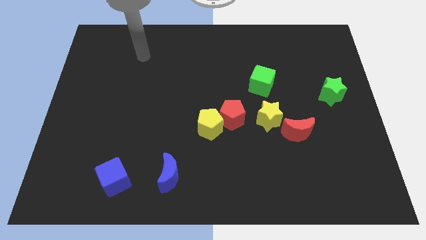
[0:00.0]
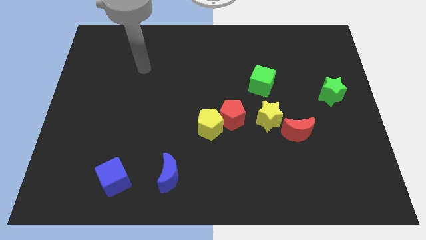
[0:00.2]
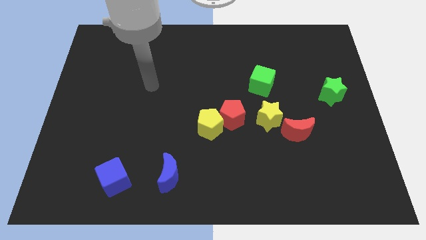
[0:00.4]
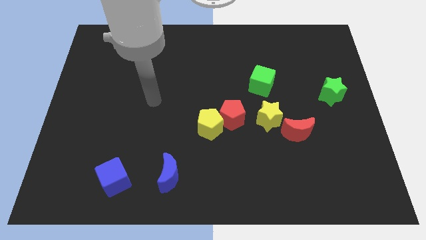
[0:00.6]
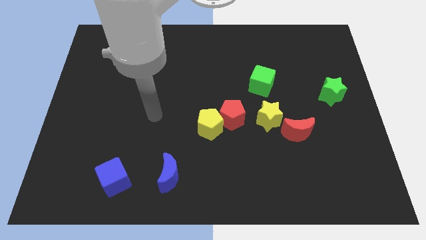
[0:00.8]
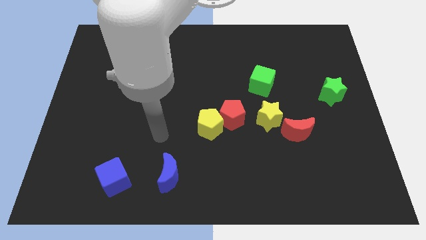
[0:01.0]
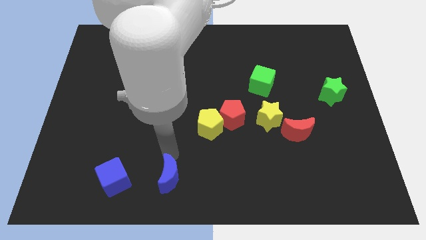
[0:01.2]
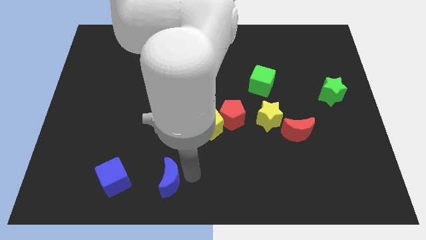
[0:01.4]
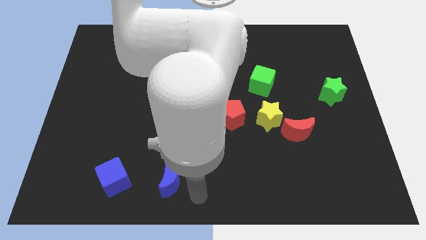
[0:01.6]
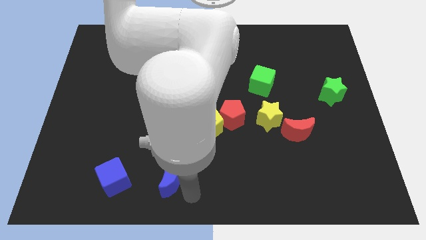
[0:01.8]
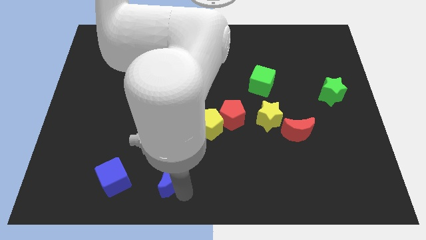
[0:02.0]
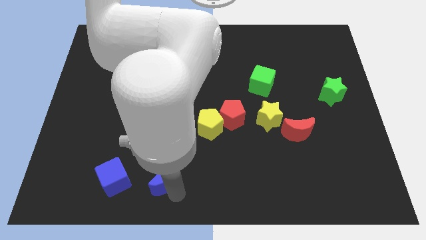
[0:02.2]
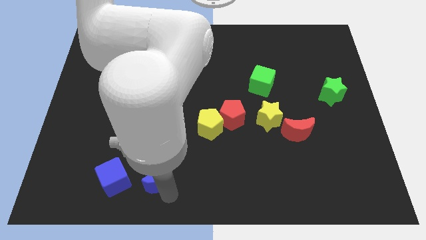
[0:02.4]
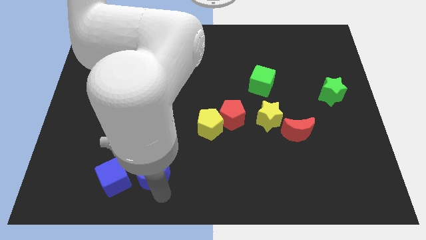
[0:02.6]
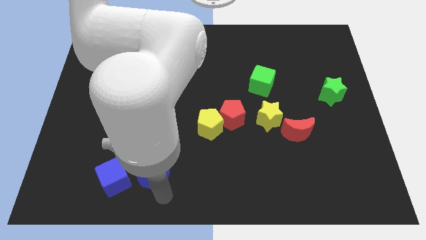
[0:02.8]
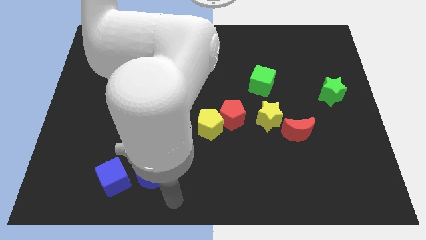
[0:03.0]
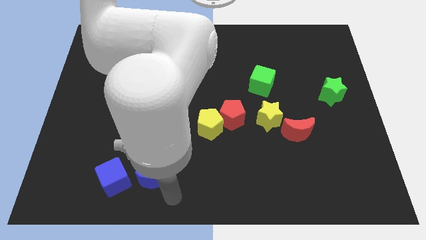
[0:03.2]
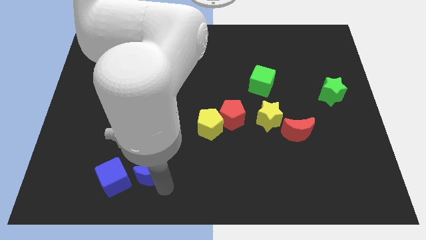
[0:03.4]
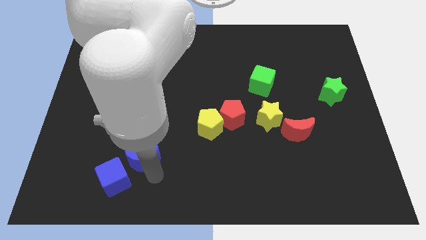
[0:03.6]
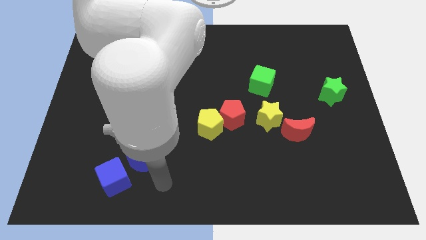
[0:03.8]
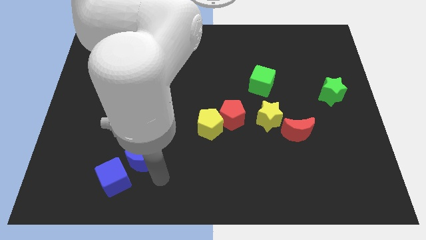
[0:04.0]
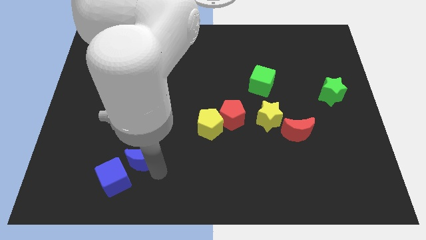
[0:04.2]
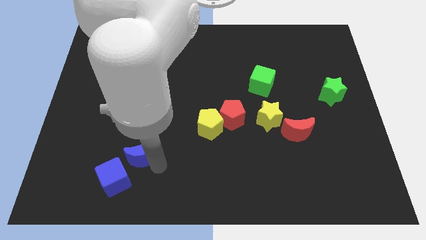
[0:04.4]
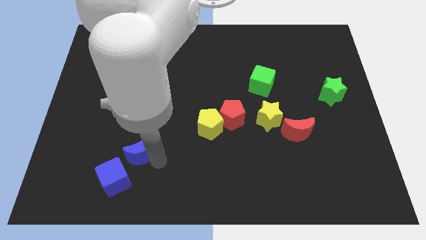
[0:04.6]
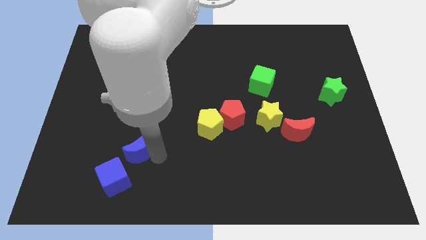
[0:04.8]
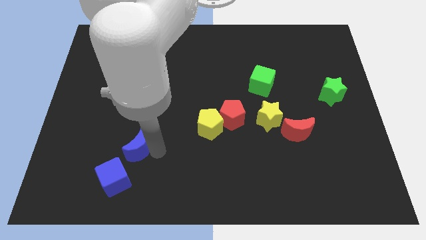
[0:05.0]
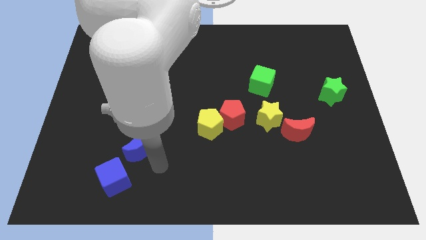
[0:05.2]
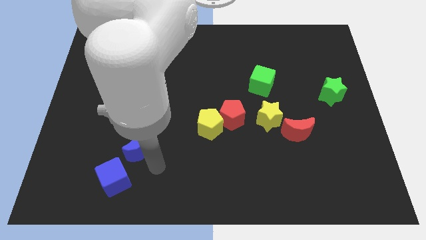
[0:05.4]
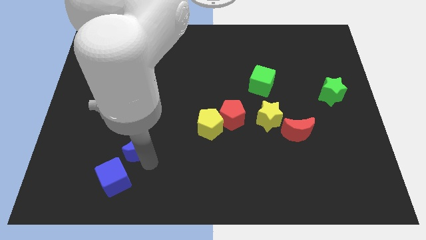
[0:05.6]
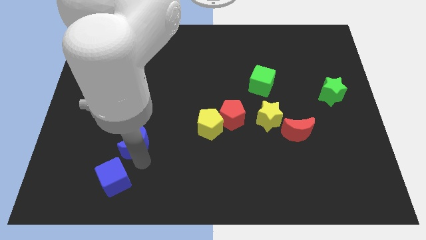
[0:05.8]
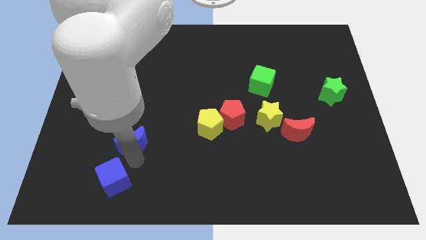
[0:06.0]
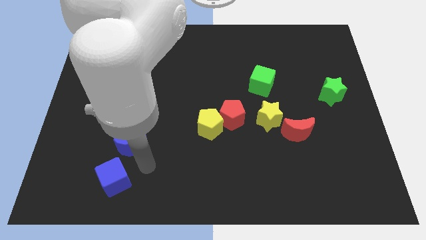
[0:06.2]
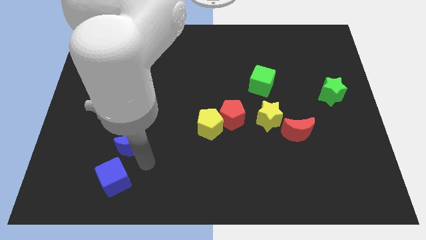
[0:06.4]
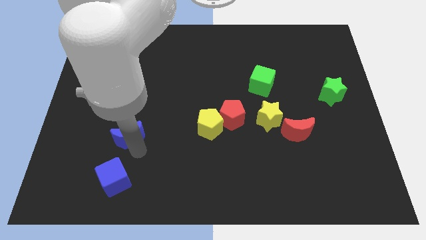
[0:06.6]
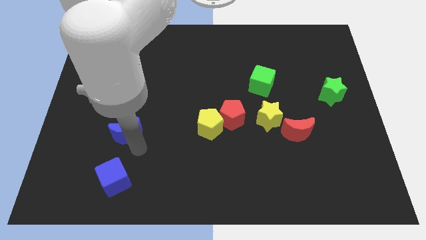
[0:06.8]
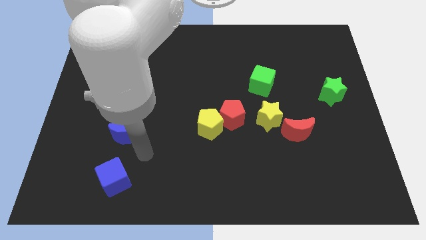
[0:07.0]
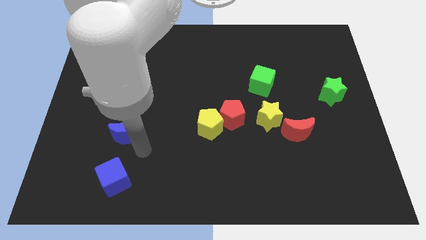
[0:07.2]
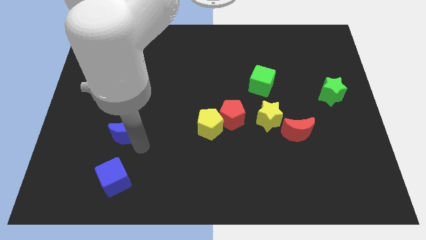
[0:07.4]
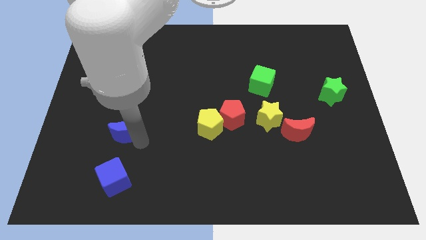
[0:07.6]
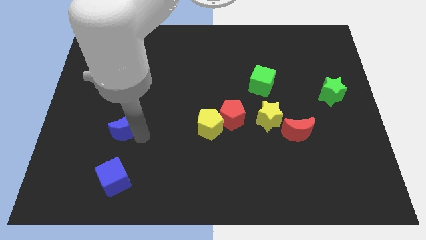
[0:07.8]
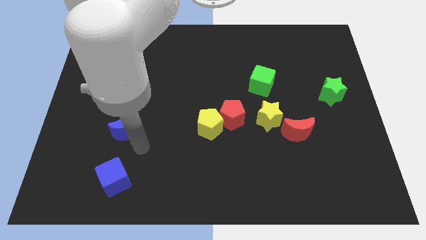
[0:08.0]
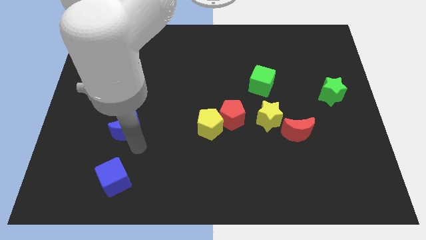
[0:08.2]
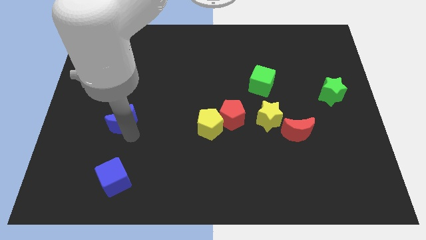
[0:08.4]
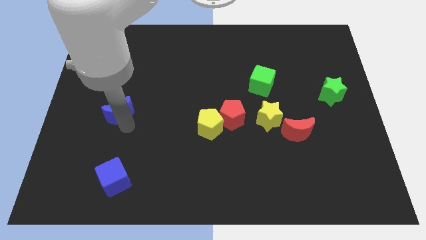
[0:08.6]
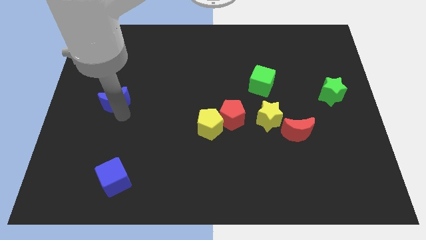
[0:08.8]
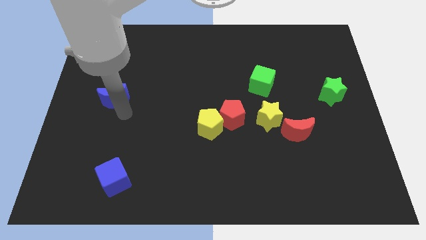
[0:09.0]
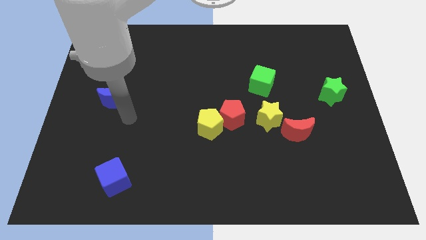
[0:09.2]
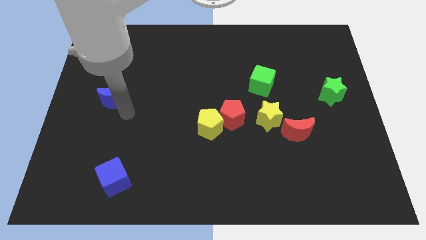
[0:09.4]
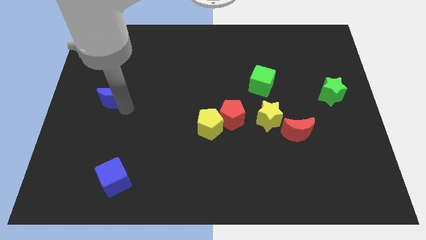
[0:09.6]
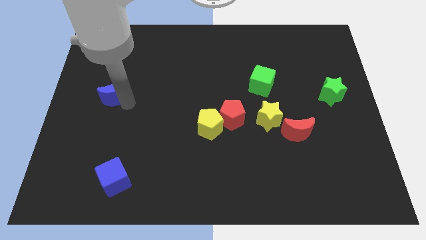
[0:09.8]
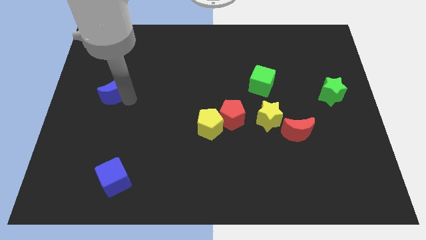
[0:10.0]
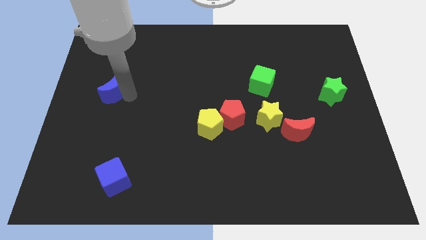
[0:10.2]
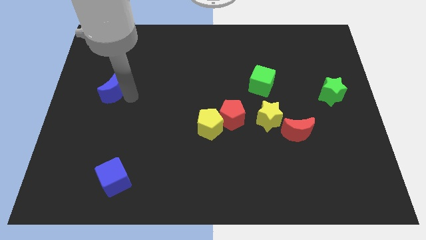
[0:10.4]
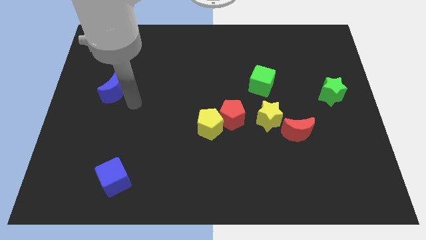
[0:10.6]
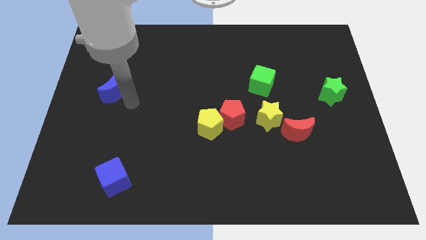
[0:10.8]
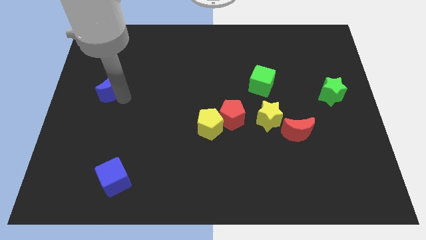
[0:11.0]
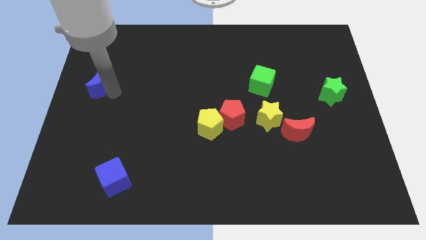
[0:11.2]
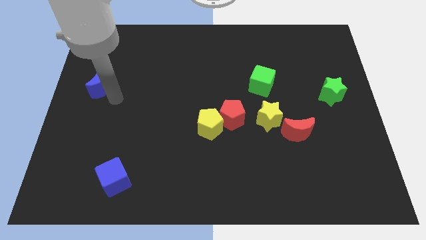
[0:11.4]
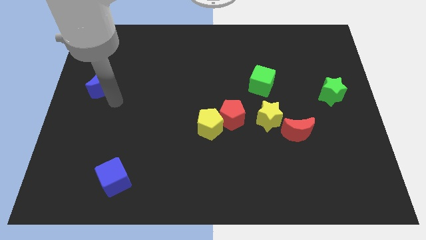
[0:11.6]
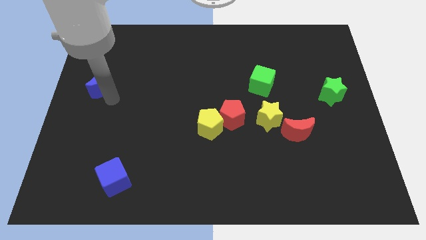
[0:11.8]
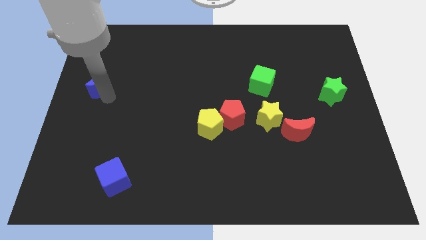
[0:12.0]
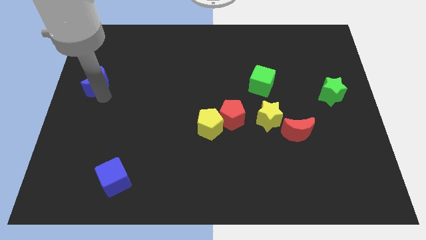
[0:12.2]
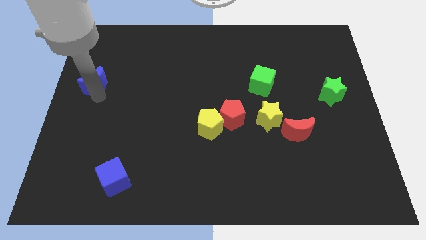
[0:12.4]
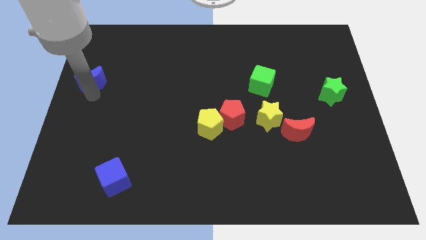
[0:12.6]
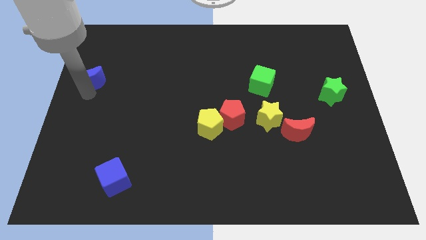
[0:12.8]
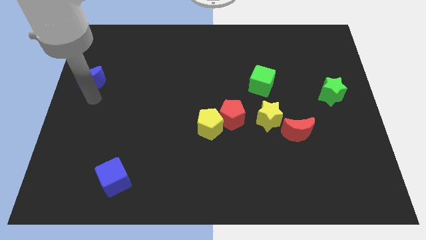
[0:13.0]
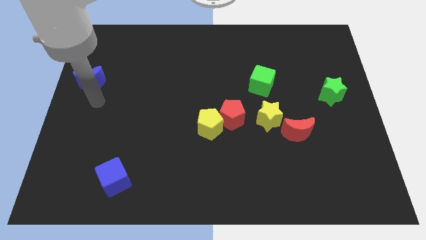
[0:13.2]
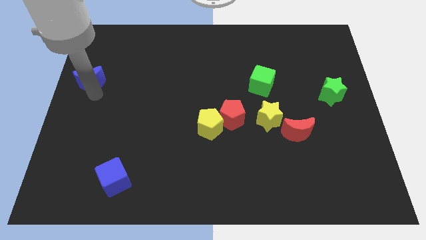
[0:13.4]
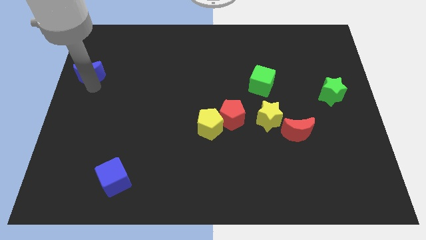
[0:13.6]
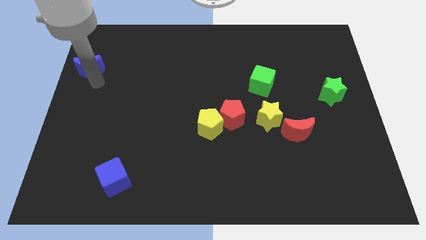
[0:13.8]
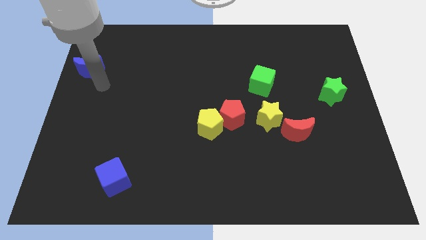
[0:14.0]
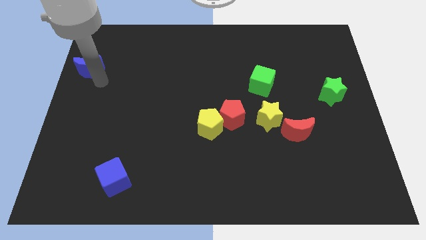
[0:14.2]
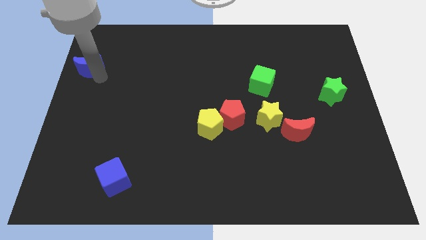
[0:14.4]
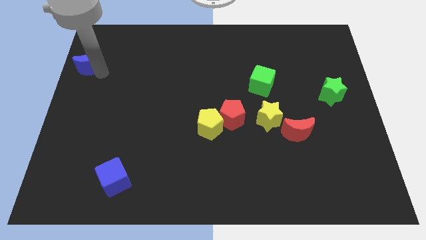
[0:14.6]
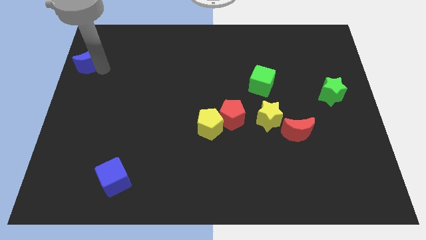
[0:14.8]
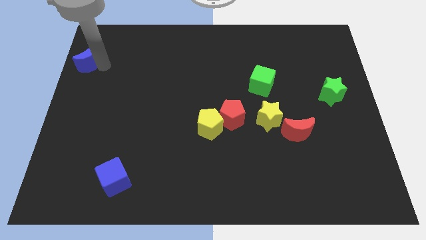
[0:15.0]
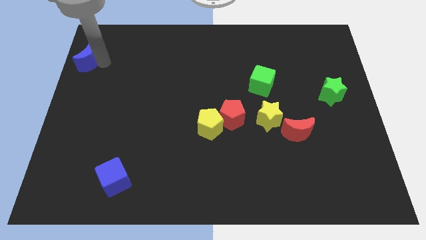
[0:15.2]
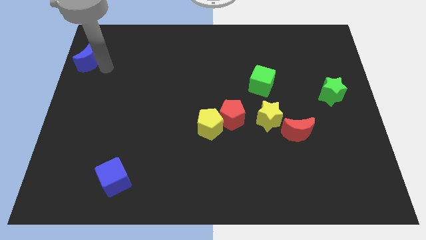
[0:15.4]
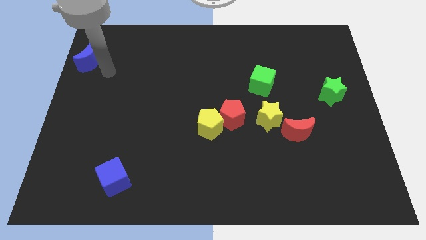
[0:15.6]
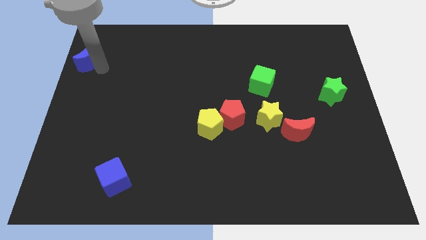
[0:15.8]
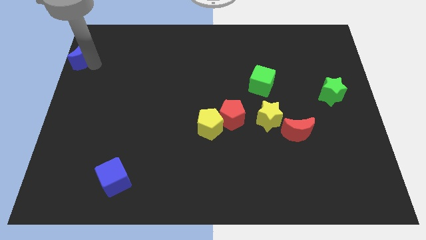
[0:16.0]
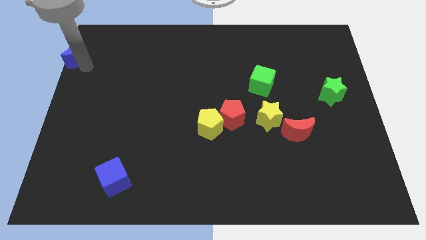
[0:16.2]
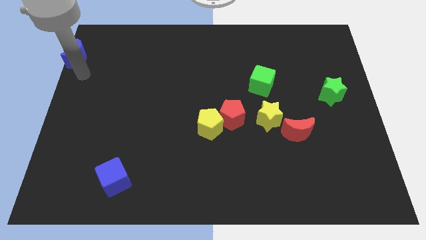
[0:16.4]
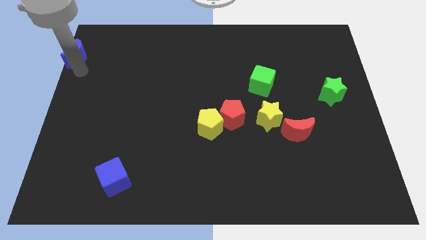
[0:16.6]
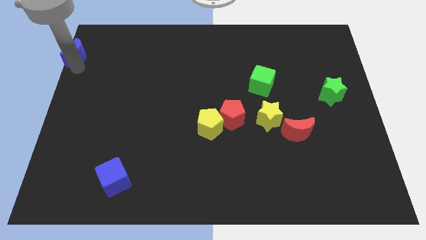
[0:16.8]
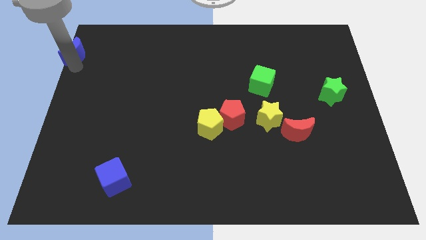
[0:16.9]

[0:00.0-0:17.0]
slide the blue moon to the top left of the board
